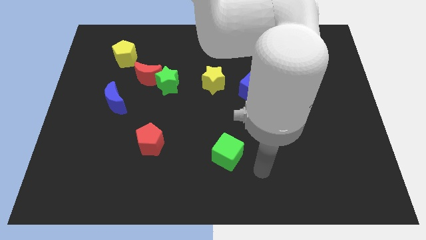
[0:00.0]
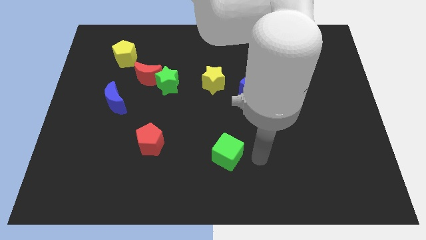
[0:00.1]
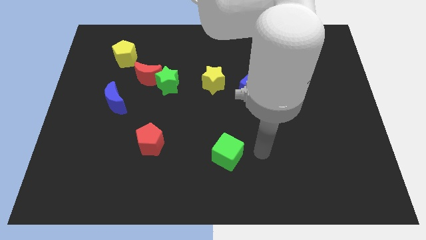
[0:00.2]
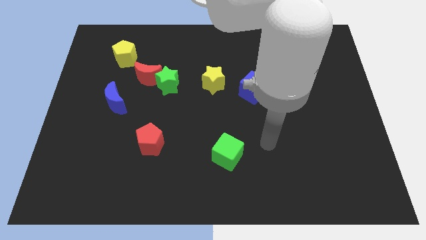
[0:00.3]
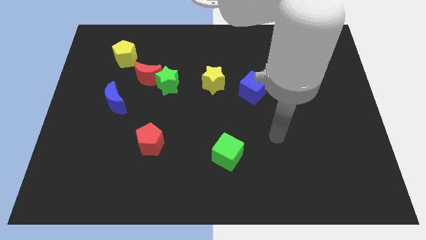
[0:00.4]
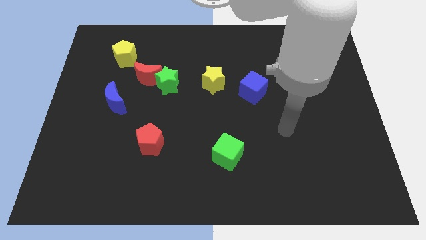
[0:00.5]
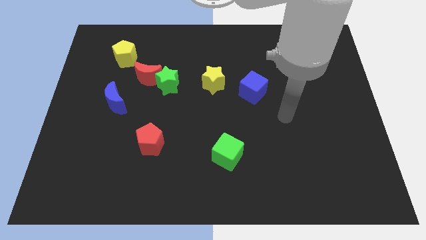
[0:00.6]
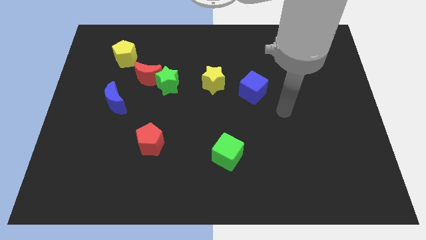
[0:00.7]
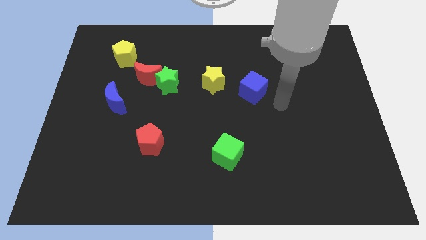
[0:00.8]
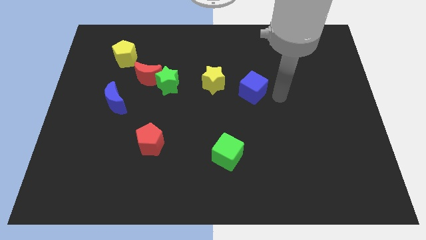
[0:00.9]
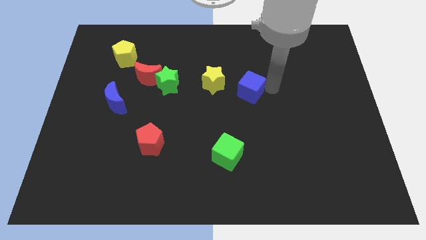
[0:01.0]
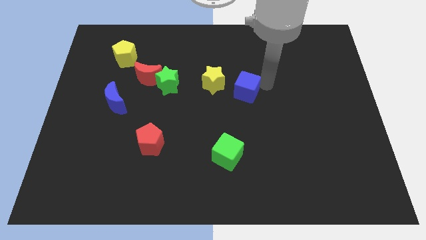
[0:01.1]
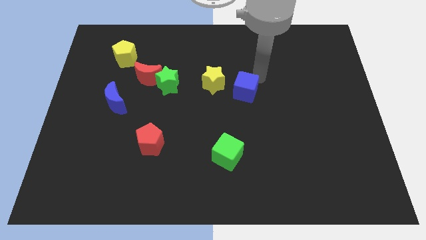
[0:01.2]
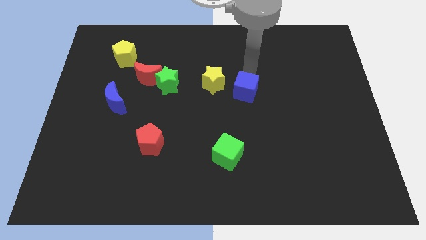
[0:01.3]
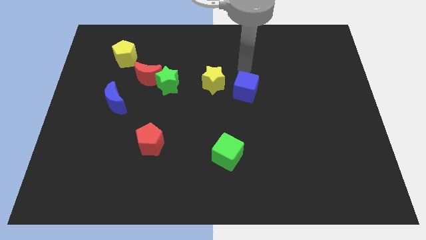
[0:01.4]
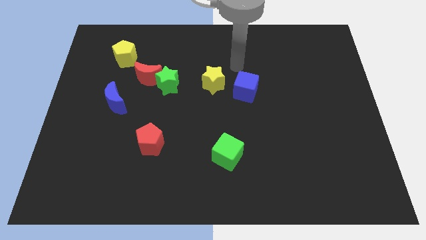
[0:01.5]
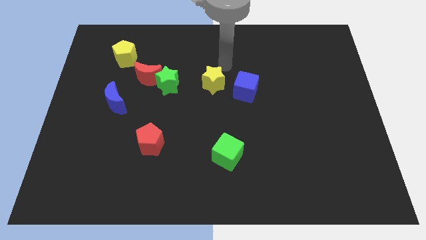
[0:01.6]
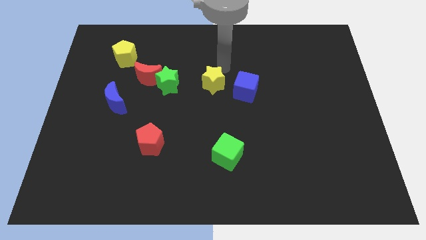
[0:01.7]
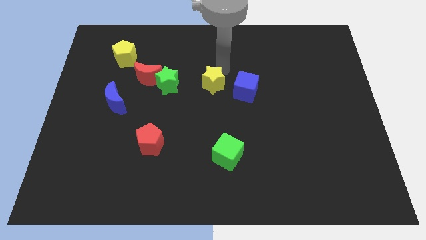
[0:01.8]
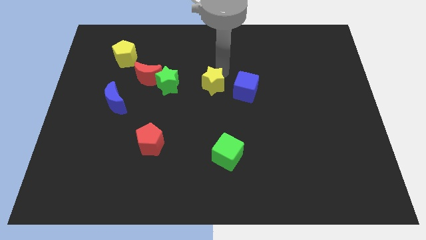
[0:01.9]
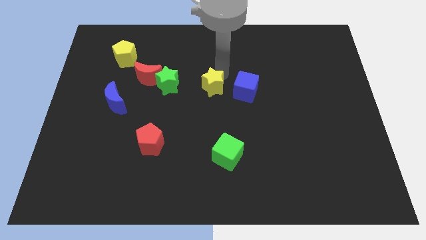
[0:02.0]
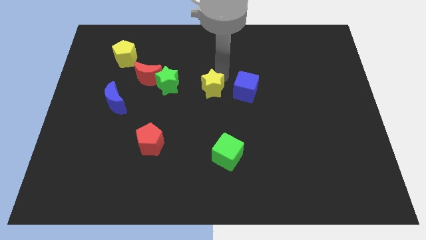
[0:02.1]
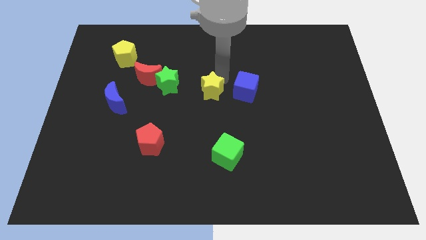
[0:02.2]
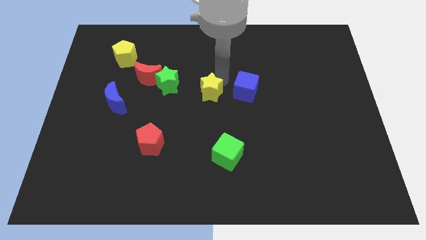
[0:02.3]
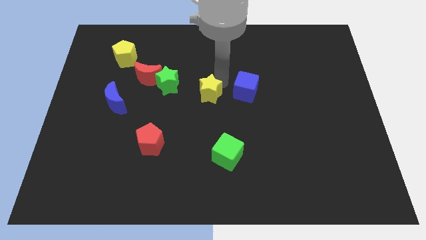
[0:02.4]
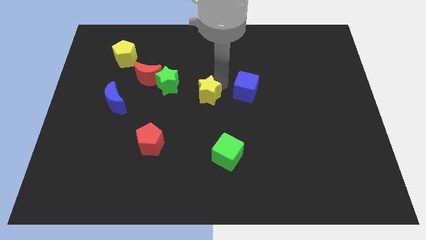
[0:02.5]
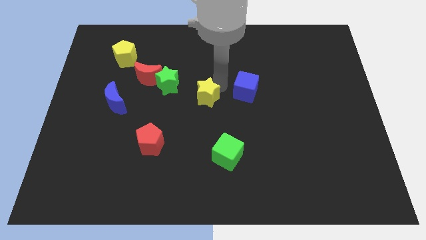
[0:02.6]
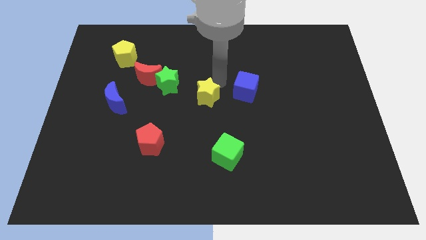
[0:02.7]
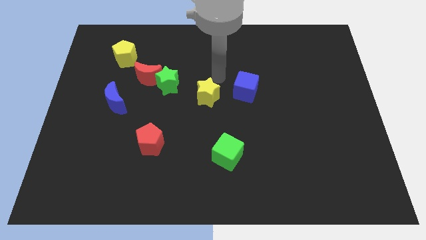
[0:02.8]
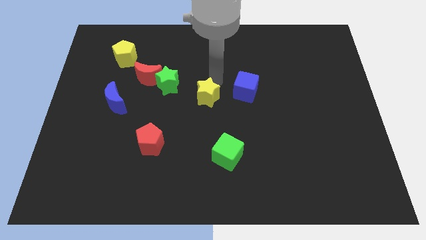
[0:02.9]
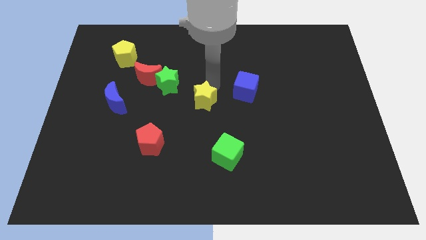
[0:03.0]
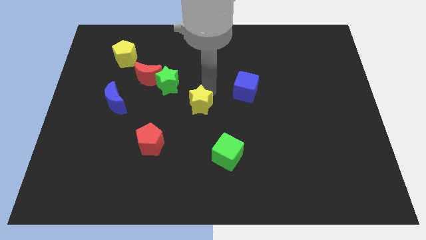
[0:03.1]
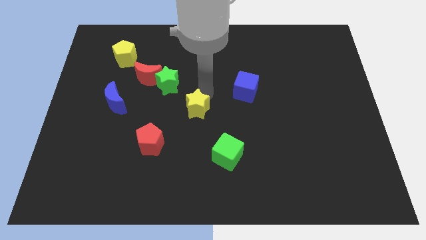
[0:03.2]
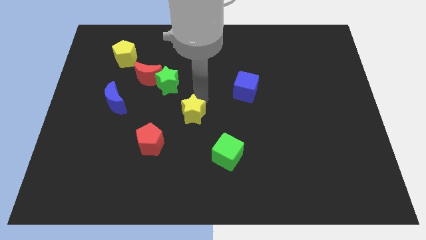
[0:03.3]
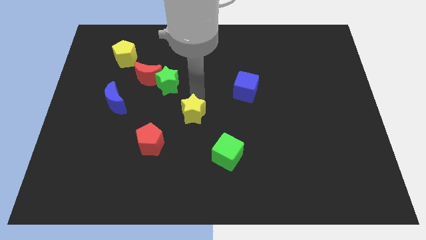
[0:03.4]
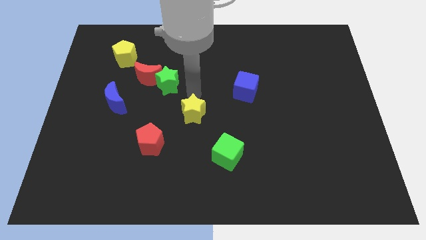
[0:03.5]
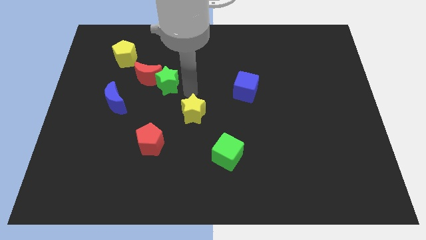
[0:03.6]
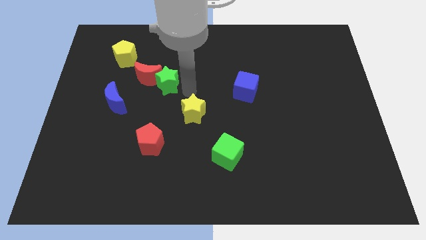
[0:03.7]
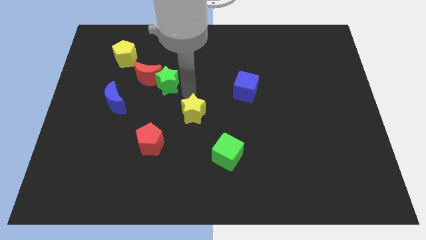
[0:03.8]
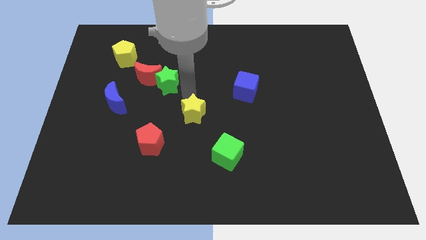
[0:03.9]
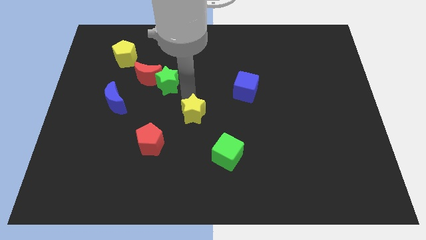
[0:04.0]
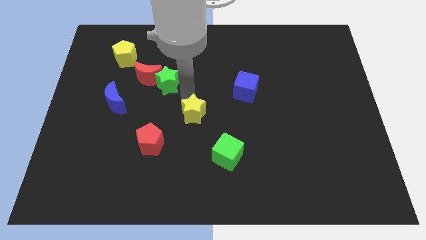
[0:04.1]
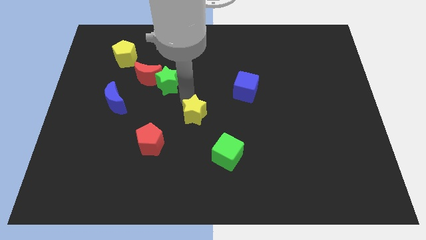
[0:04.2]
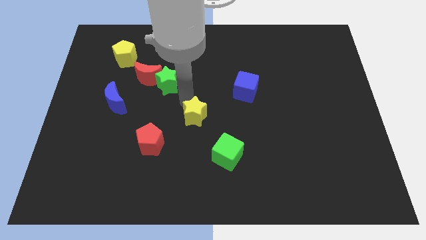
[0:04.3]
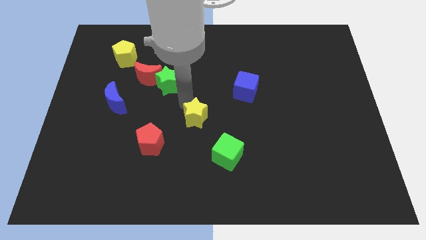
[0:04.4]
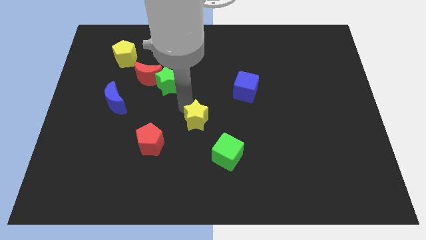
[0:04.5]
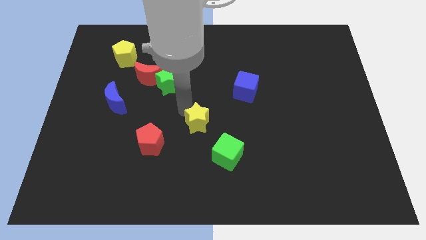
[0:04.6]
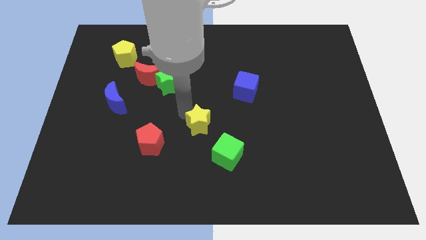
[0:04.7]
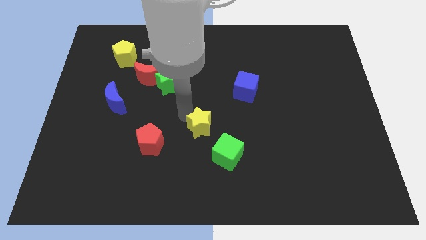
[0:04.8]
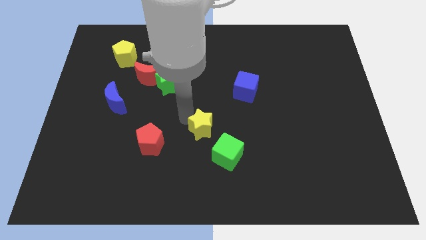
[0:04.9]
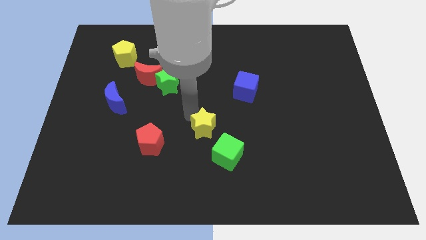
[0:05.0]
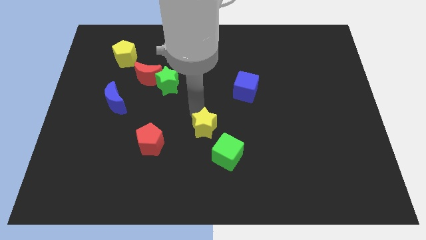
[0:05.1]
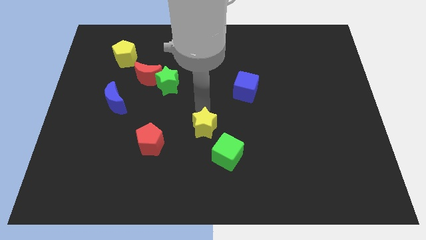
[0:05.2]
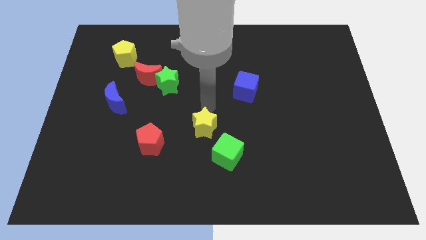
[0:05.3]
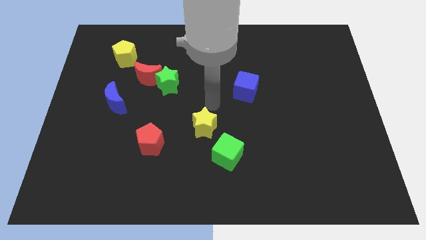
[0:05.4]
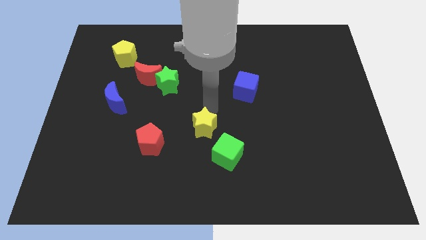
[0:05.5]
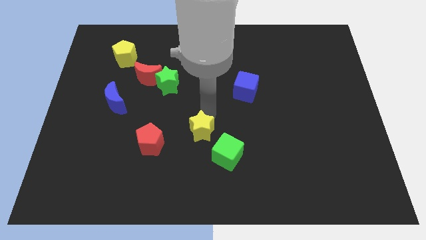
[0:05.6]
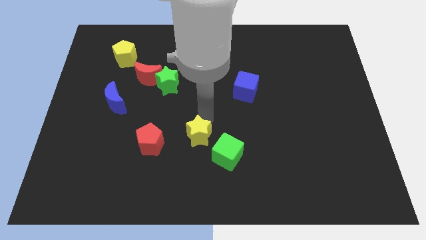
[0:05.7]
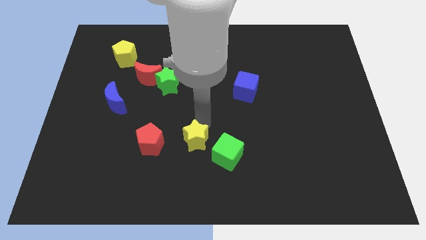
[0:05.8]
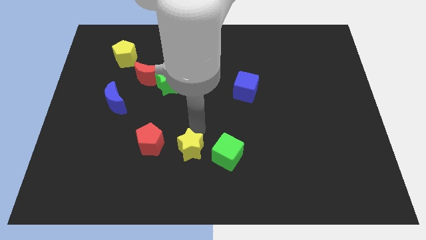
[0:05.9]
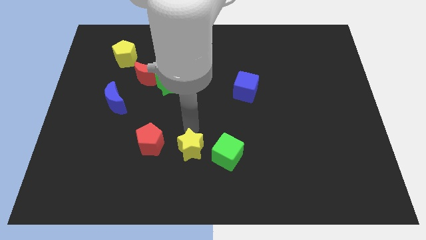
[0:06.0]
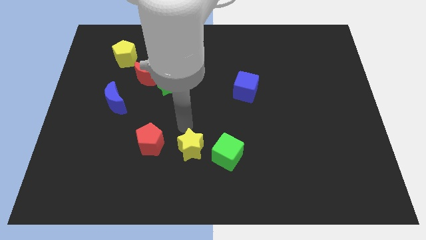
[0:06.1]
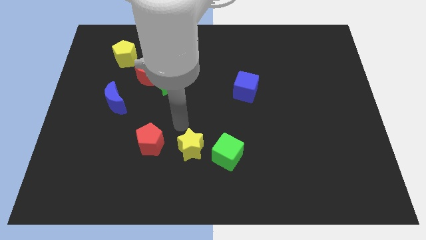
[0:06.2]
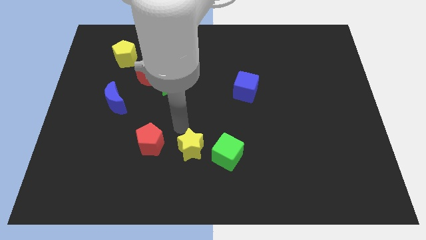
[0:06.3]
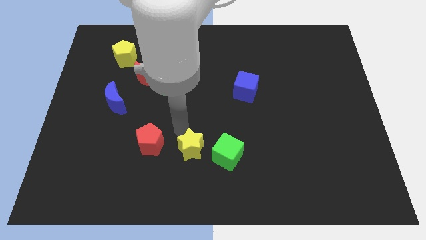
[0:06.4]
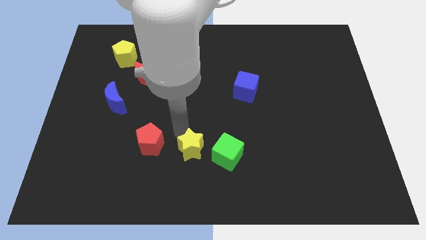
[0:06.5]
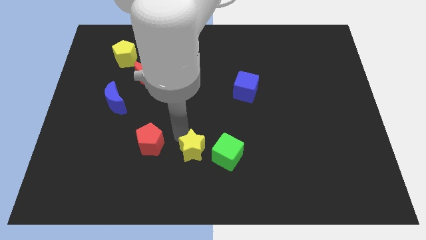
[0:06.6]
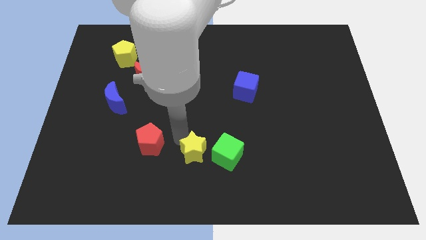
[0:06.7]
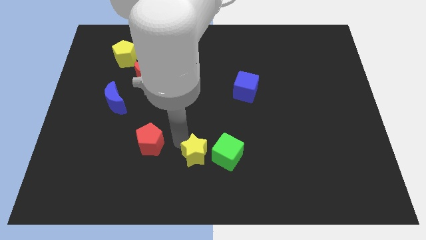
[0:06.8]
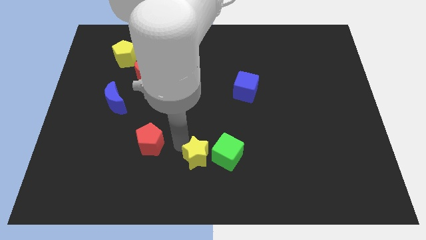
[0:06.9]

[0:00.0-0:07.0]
slide the yellow star diagonally down and to the left of the green cube

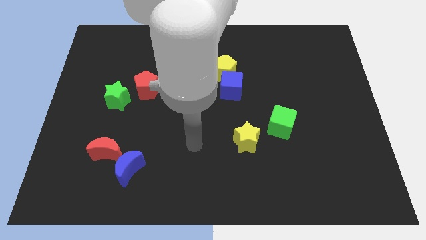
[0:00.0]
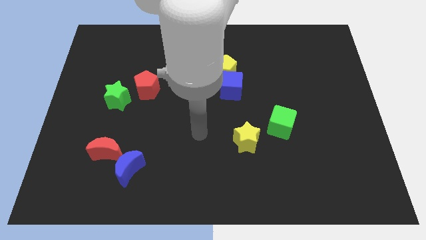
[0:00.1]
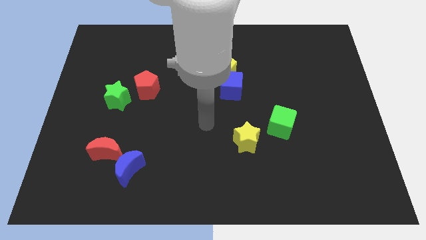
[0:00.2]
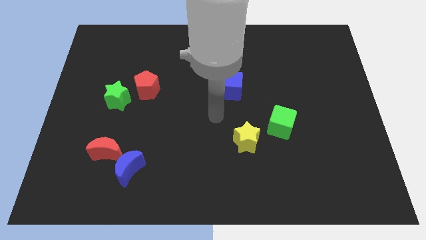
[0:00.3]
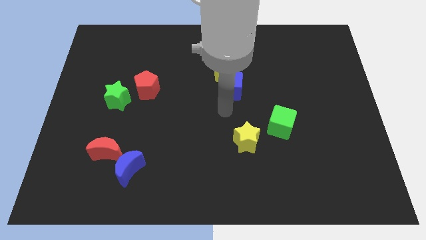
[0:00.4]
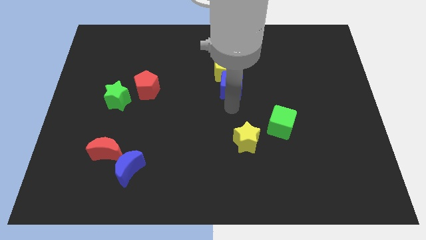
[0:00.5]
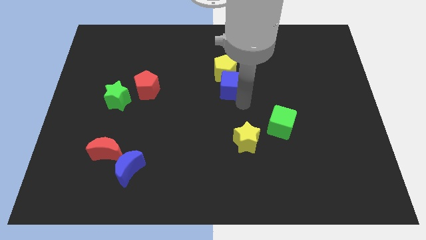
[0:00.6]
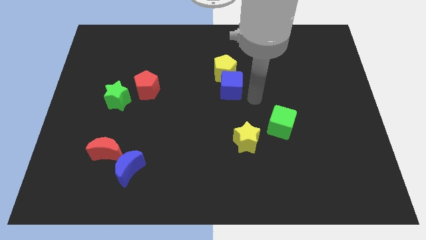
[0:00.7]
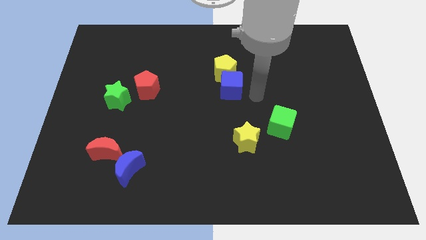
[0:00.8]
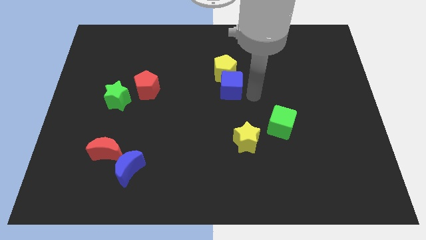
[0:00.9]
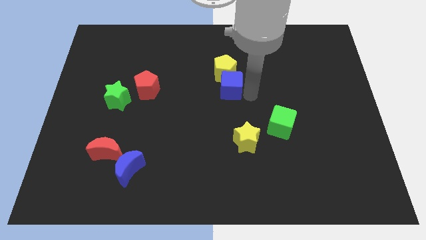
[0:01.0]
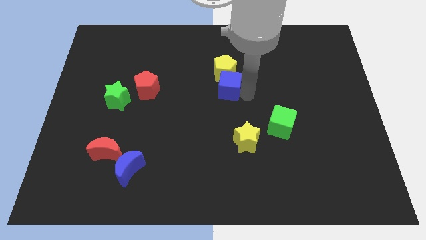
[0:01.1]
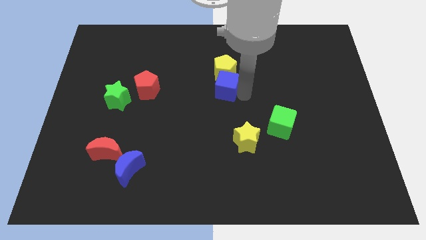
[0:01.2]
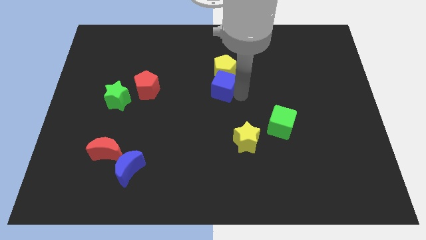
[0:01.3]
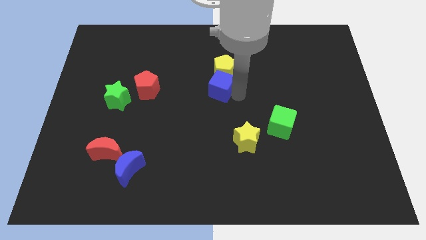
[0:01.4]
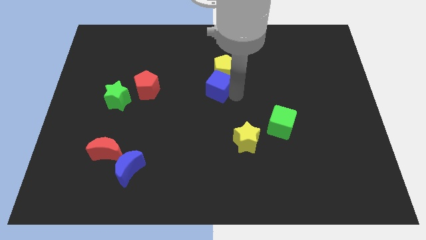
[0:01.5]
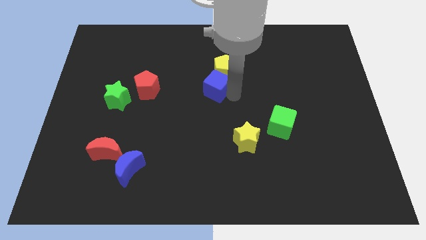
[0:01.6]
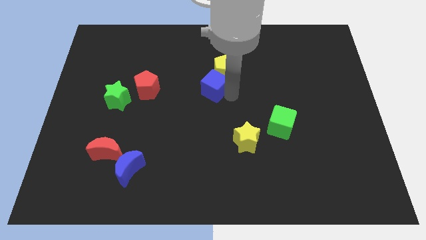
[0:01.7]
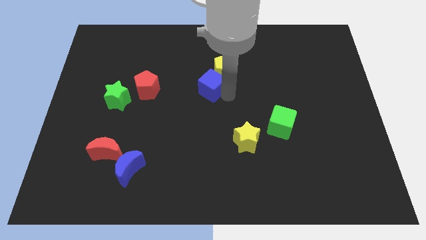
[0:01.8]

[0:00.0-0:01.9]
slide the blue cube right of the red pentagon
